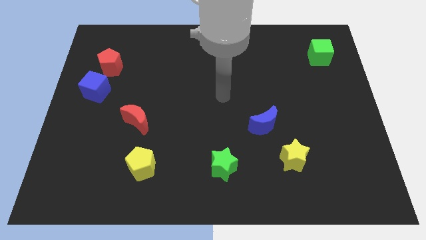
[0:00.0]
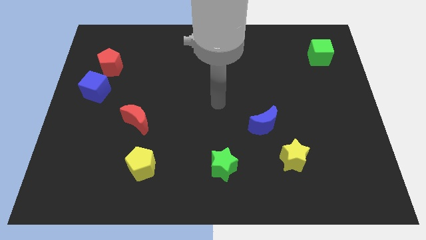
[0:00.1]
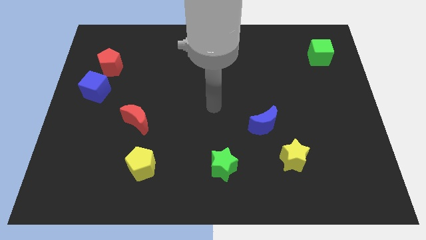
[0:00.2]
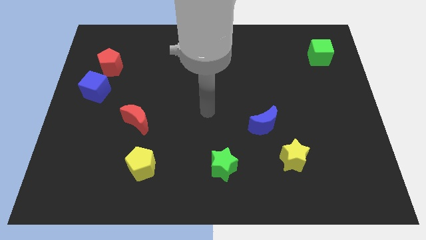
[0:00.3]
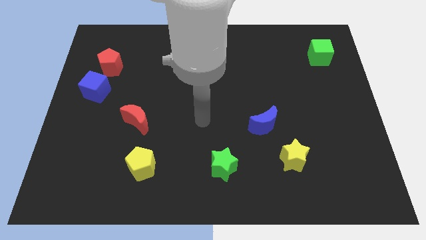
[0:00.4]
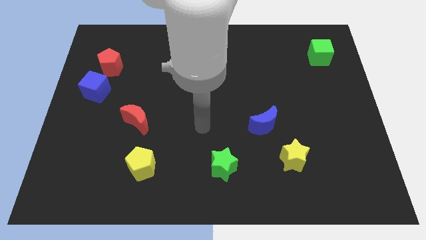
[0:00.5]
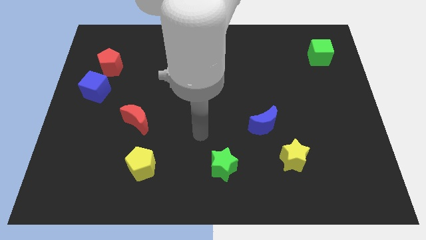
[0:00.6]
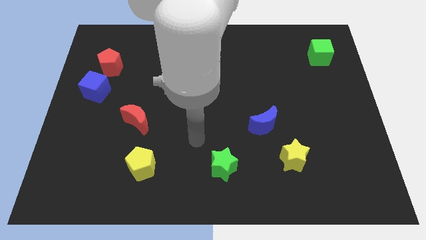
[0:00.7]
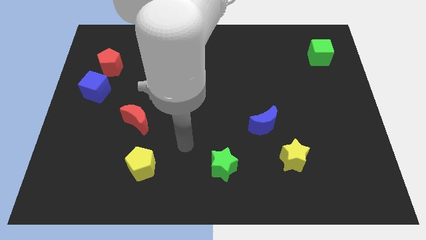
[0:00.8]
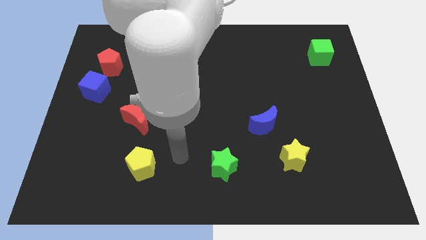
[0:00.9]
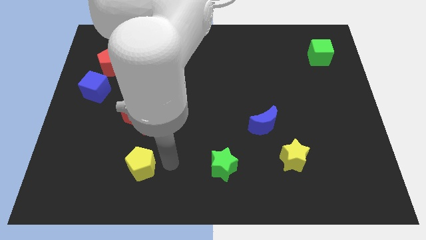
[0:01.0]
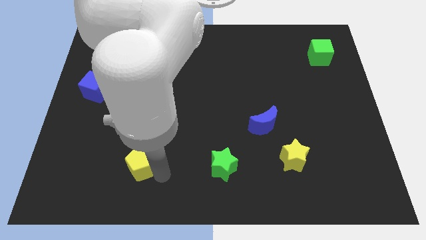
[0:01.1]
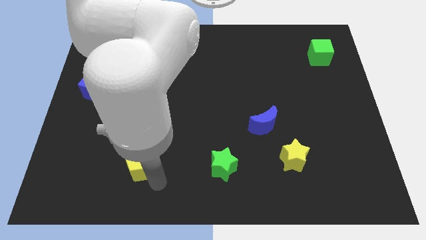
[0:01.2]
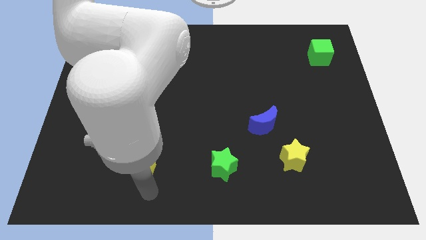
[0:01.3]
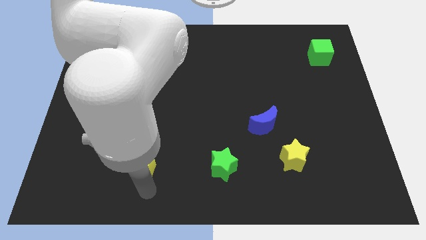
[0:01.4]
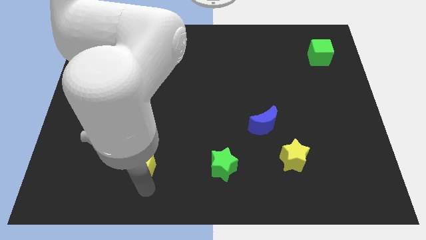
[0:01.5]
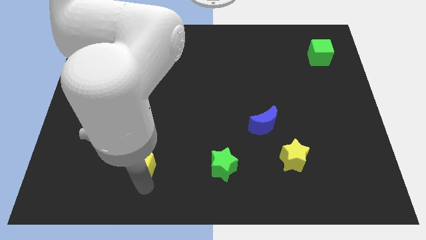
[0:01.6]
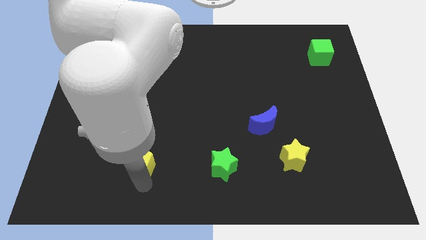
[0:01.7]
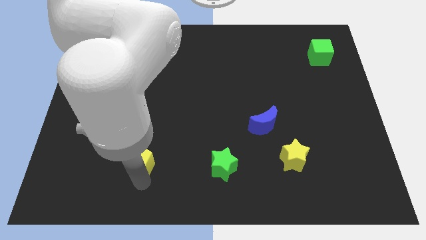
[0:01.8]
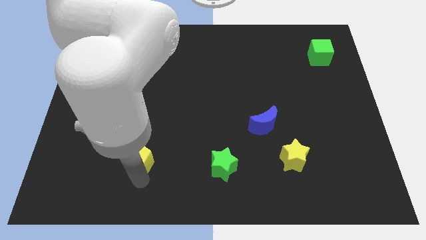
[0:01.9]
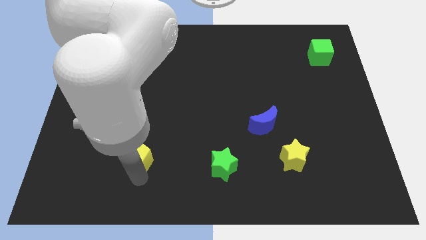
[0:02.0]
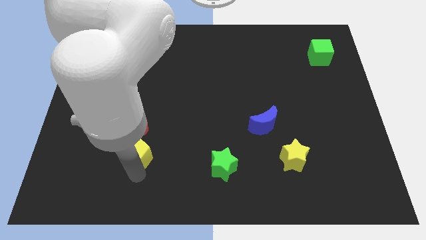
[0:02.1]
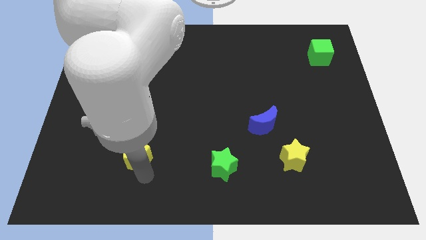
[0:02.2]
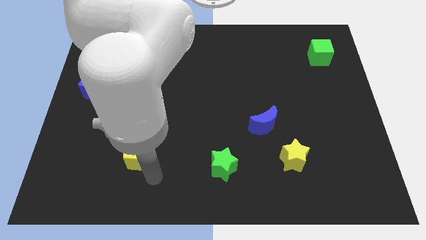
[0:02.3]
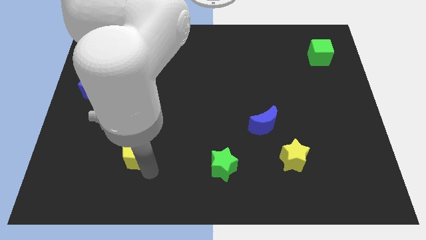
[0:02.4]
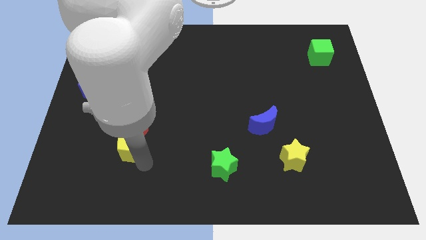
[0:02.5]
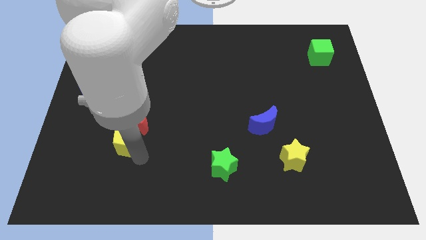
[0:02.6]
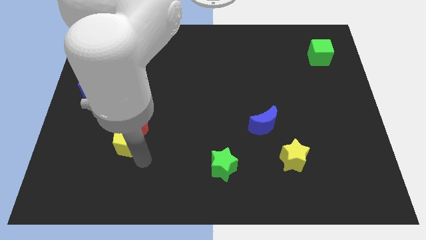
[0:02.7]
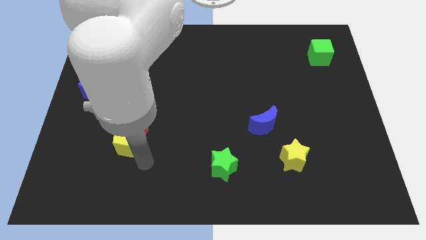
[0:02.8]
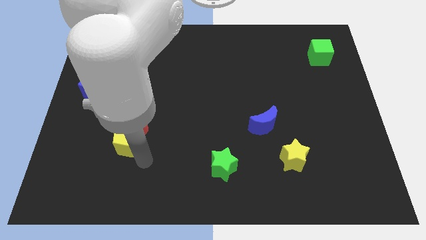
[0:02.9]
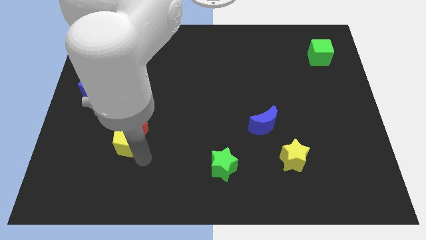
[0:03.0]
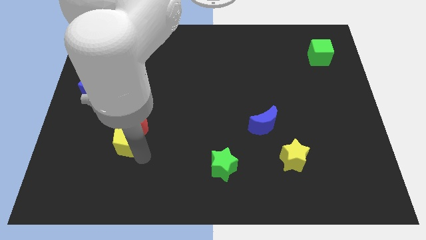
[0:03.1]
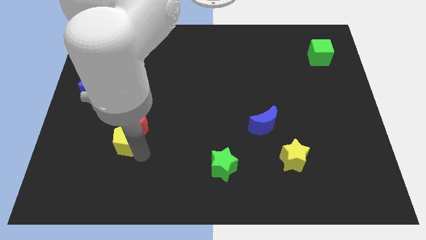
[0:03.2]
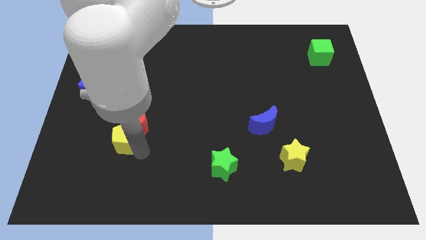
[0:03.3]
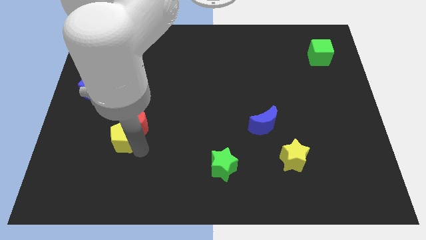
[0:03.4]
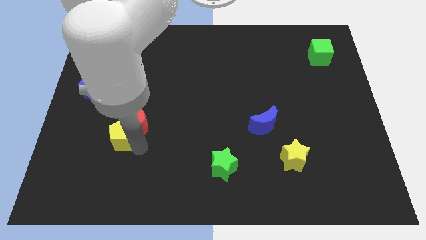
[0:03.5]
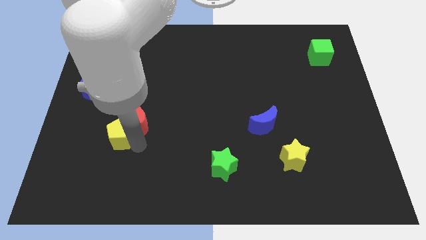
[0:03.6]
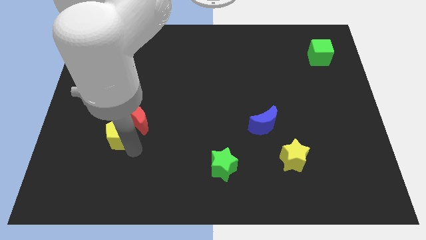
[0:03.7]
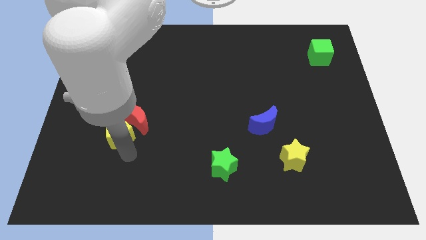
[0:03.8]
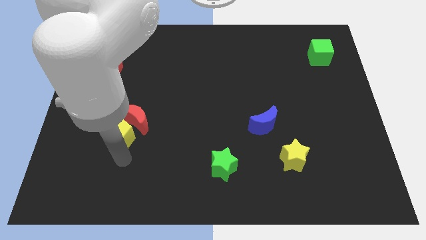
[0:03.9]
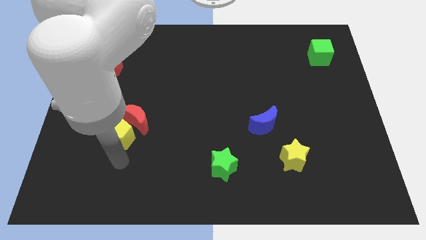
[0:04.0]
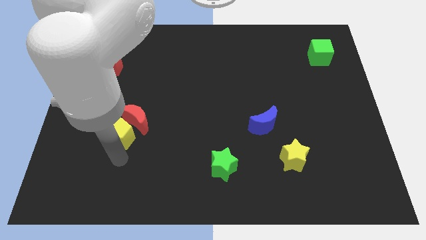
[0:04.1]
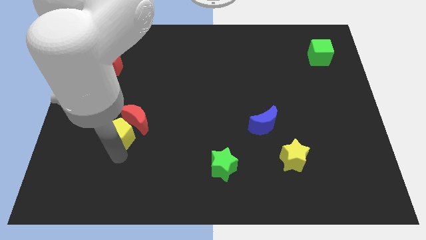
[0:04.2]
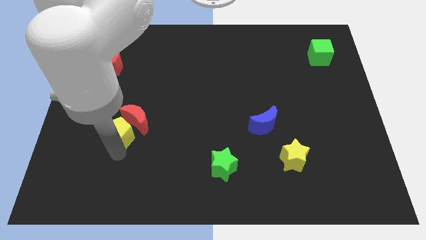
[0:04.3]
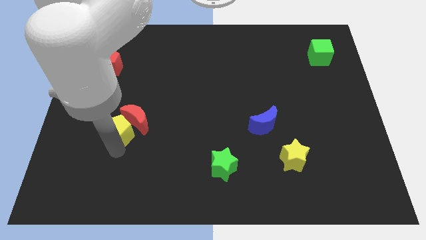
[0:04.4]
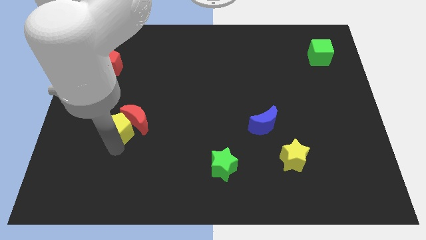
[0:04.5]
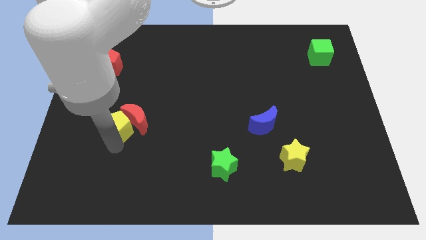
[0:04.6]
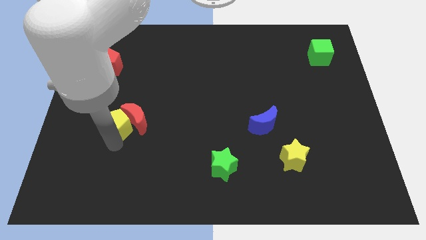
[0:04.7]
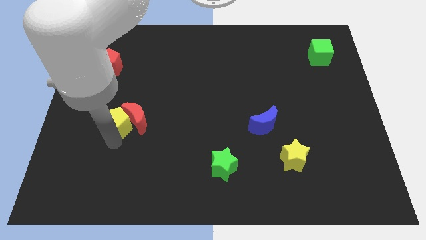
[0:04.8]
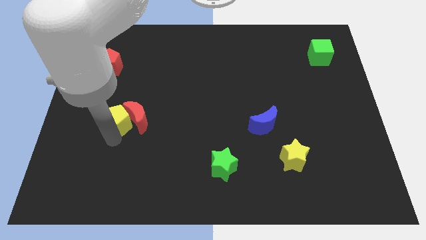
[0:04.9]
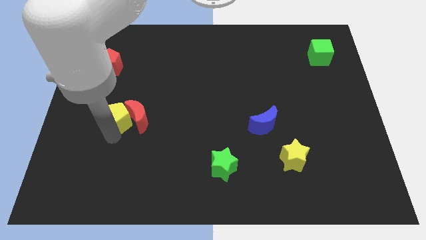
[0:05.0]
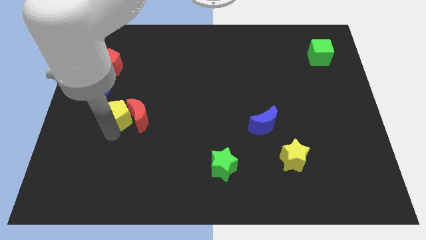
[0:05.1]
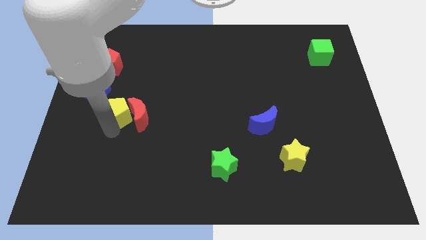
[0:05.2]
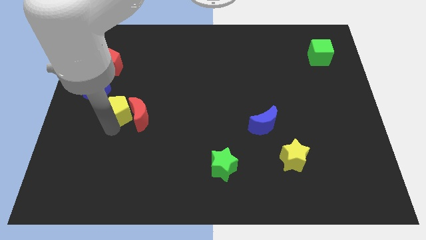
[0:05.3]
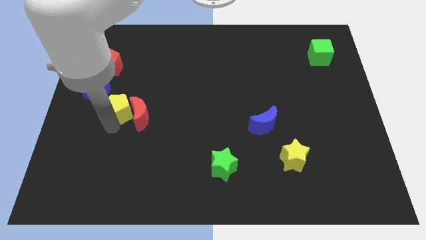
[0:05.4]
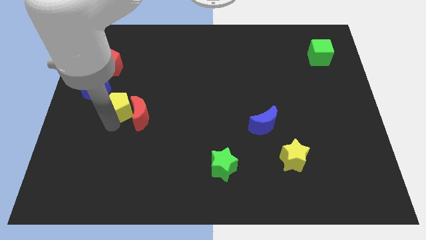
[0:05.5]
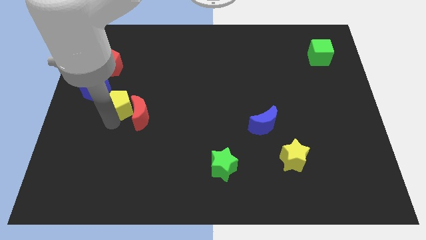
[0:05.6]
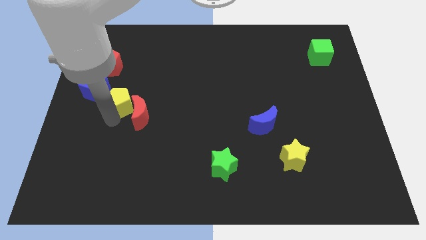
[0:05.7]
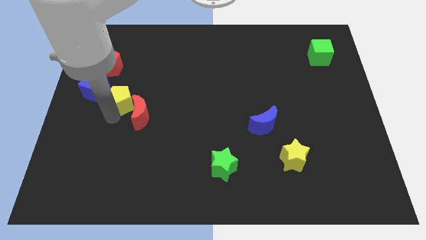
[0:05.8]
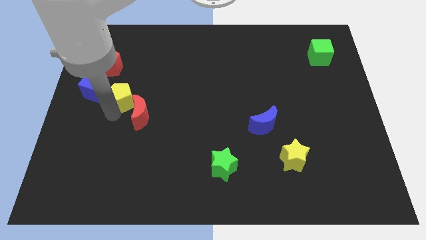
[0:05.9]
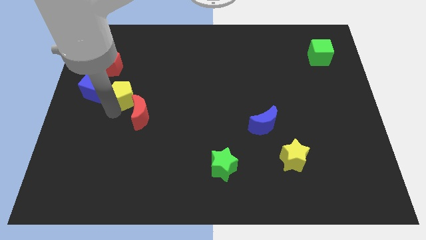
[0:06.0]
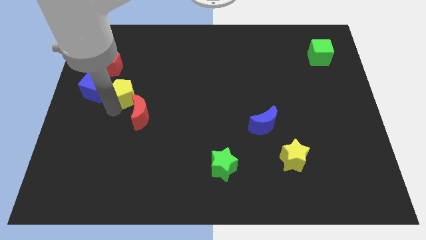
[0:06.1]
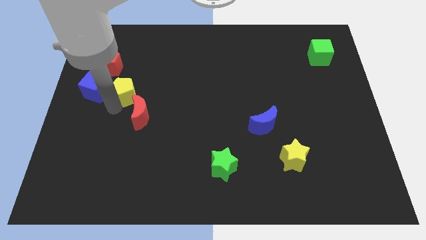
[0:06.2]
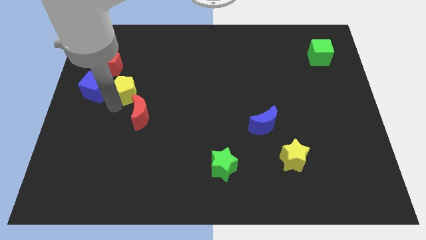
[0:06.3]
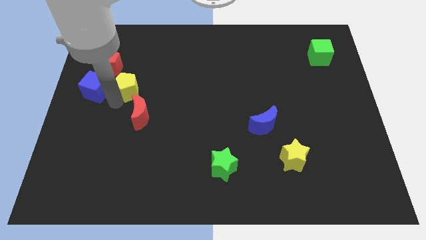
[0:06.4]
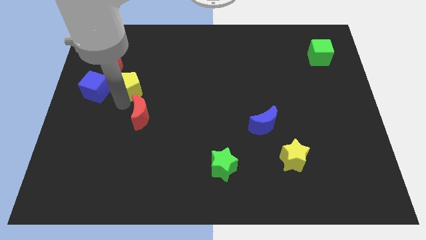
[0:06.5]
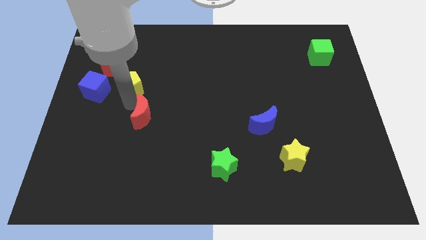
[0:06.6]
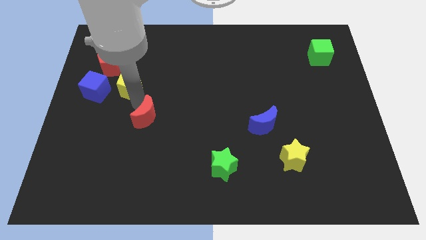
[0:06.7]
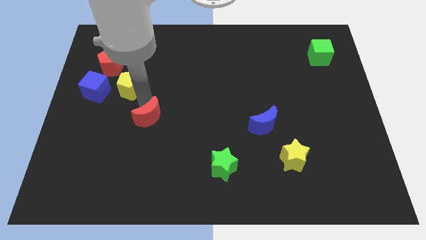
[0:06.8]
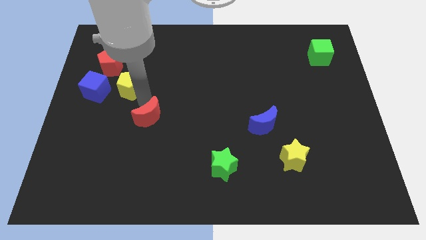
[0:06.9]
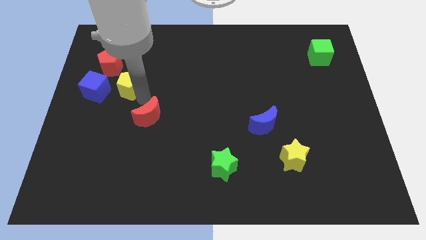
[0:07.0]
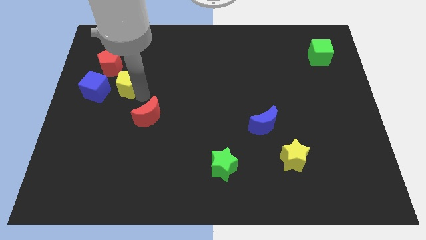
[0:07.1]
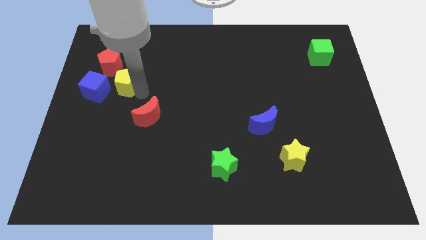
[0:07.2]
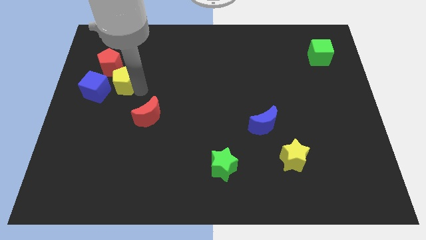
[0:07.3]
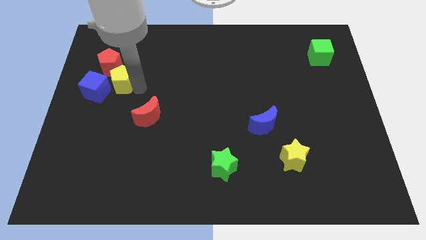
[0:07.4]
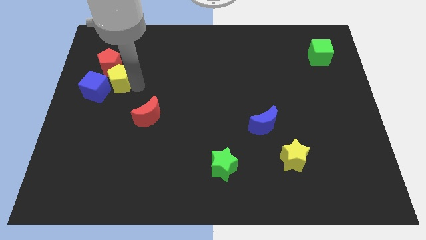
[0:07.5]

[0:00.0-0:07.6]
slide the yellow pentagon to the red pentagon
